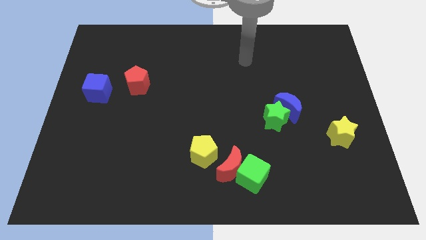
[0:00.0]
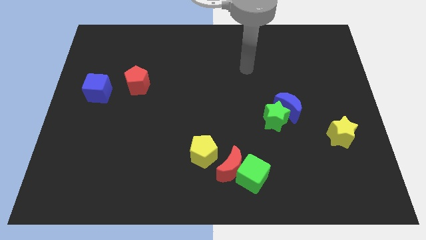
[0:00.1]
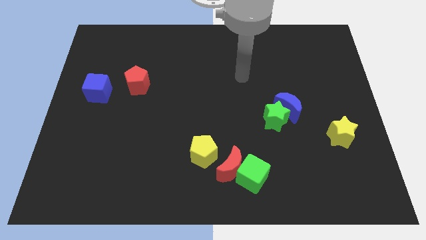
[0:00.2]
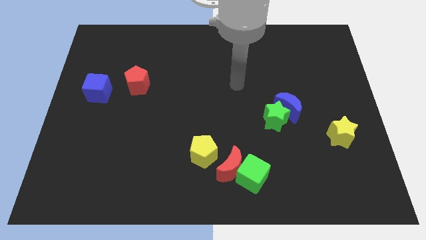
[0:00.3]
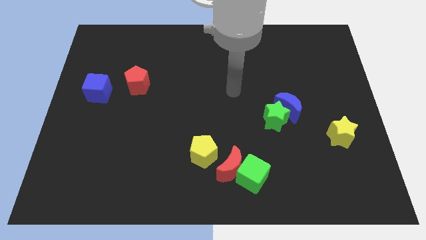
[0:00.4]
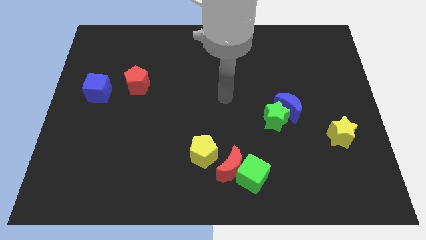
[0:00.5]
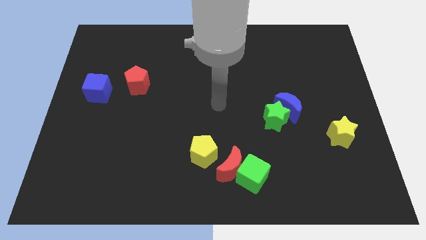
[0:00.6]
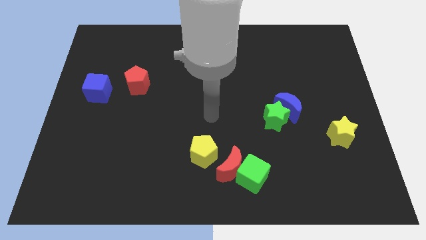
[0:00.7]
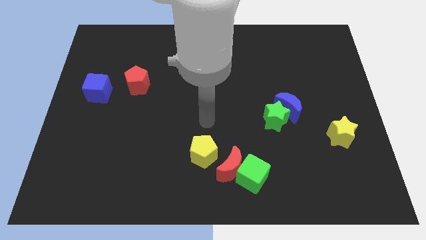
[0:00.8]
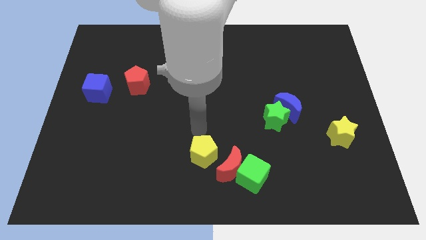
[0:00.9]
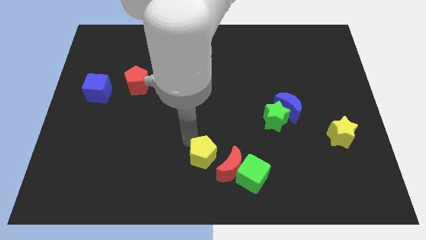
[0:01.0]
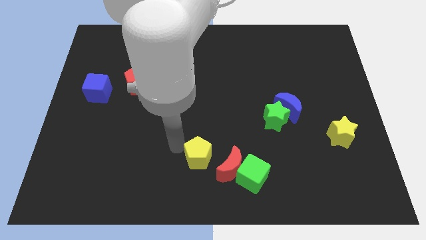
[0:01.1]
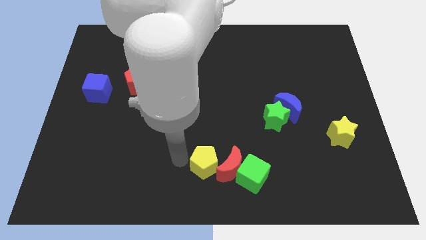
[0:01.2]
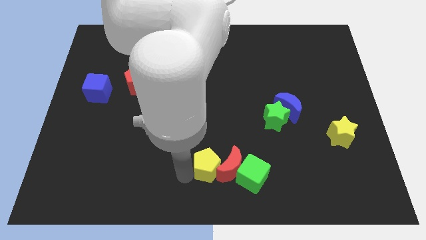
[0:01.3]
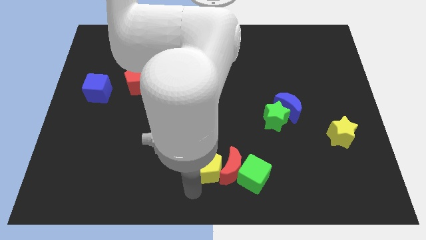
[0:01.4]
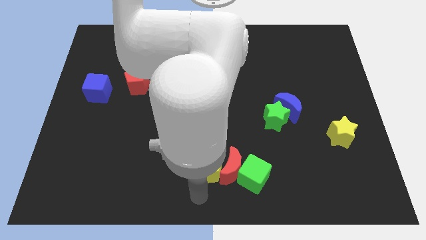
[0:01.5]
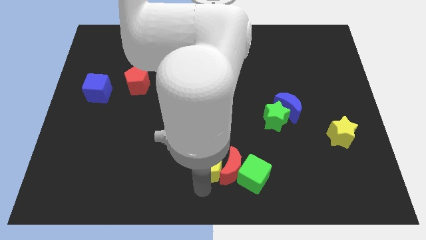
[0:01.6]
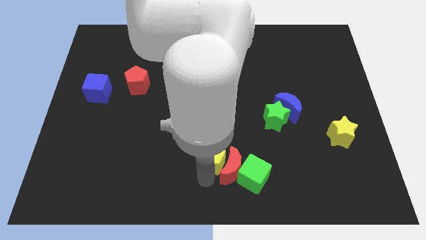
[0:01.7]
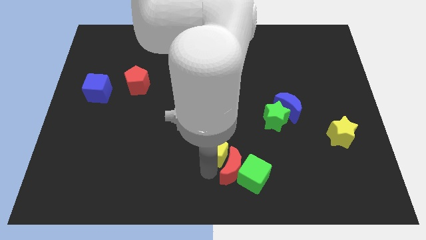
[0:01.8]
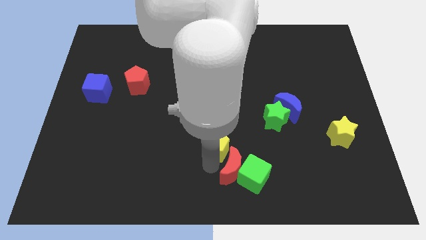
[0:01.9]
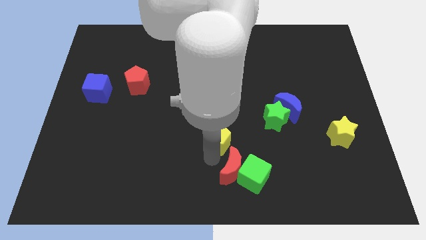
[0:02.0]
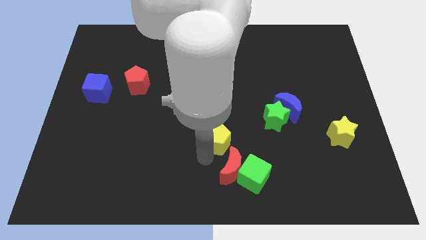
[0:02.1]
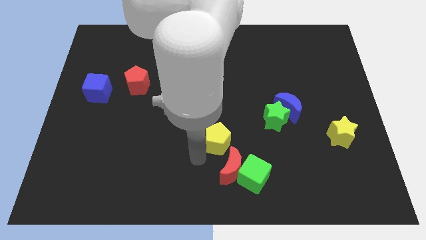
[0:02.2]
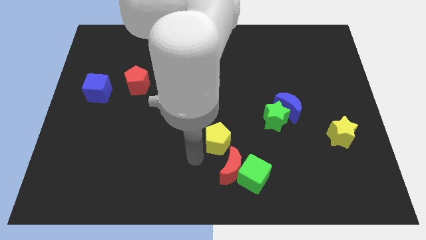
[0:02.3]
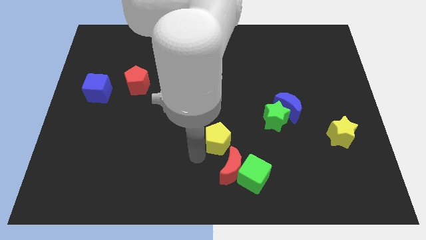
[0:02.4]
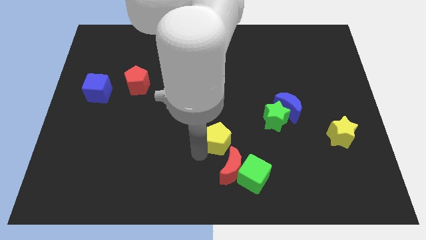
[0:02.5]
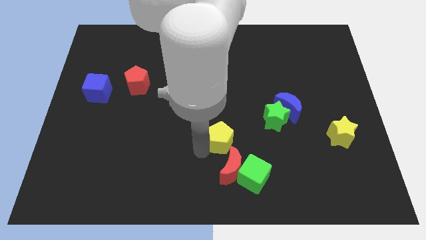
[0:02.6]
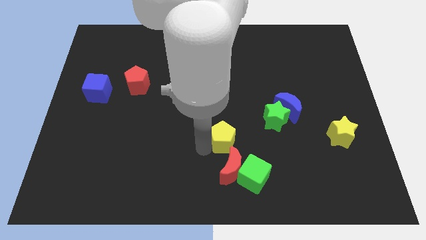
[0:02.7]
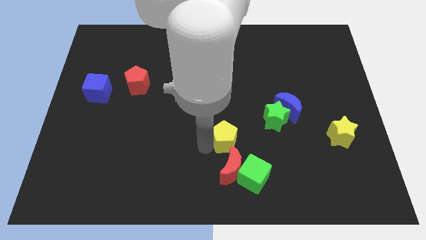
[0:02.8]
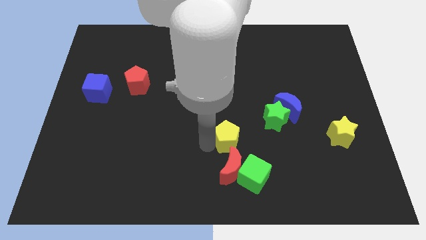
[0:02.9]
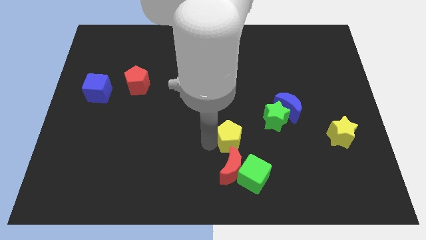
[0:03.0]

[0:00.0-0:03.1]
move the yellow pentagon slightly upwards and right diagonally

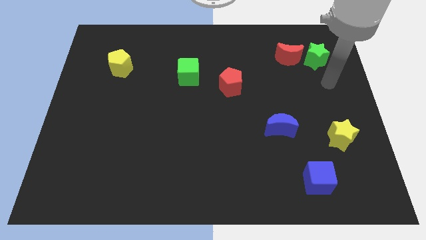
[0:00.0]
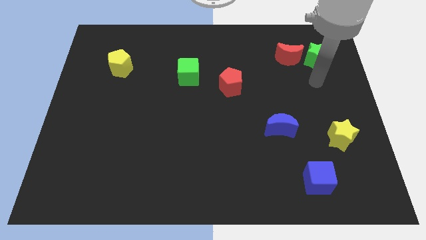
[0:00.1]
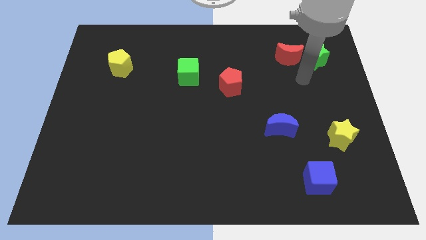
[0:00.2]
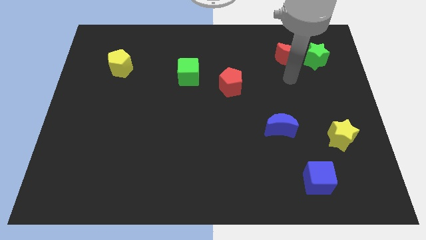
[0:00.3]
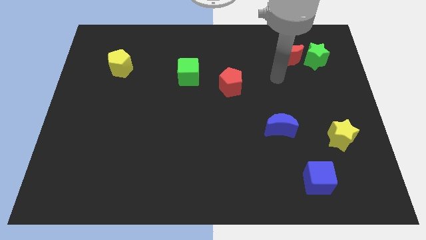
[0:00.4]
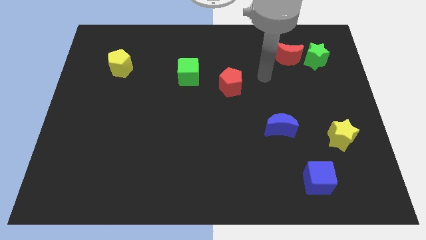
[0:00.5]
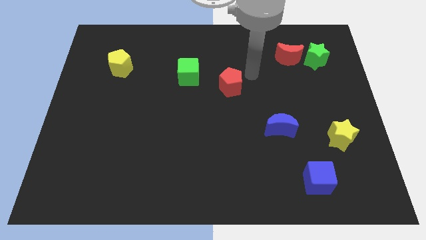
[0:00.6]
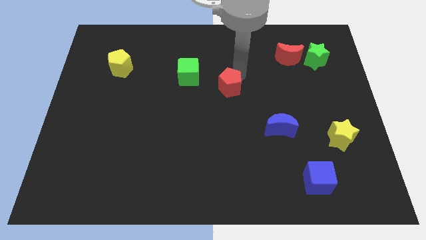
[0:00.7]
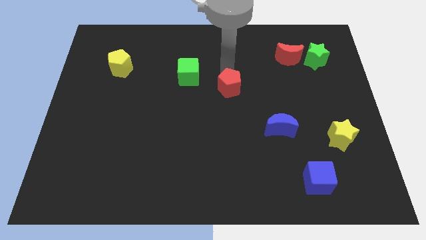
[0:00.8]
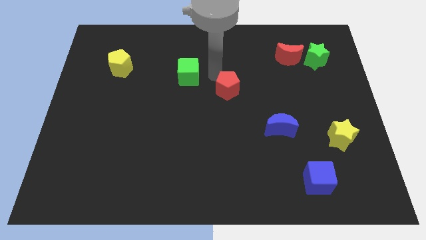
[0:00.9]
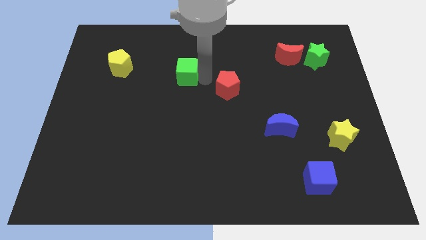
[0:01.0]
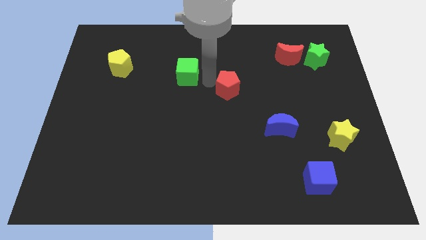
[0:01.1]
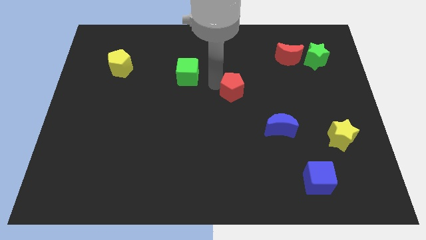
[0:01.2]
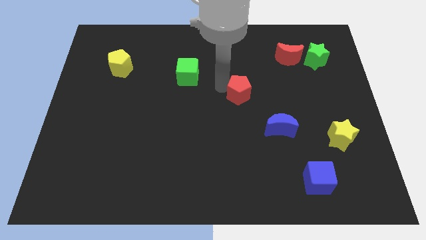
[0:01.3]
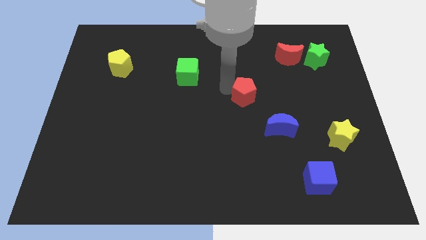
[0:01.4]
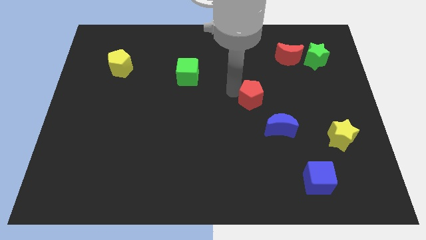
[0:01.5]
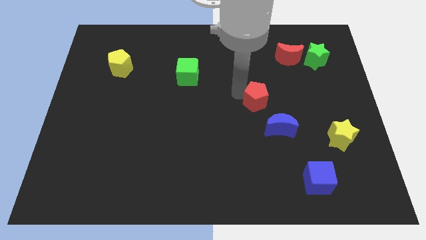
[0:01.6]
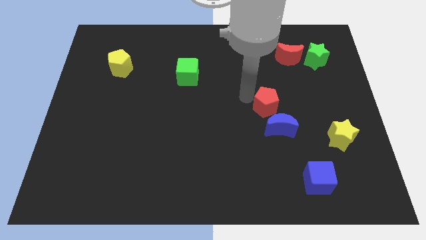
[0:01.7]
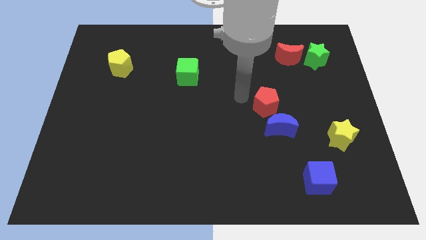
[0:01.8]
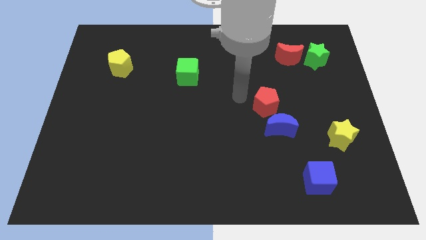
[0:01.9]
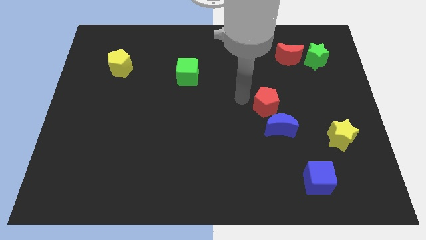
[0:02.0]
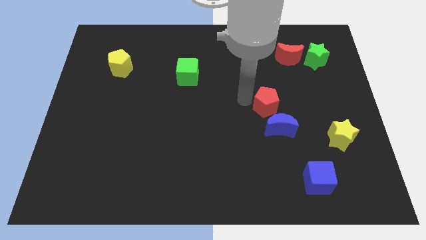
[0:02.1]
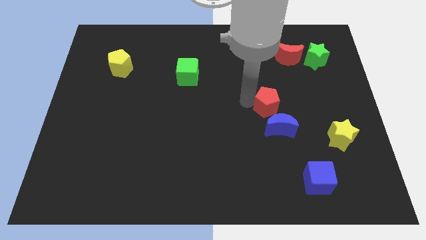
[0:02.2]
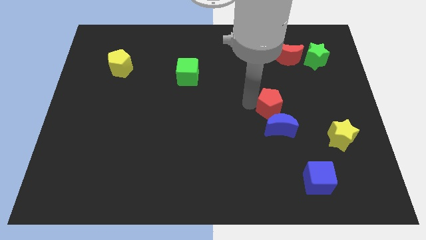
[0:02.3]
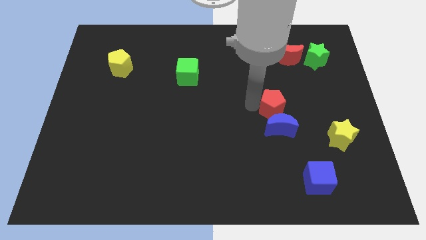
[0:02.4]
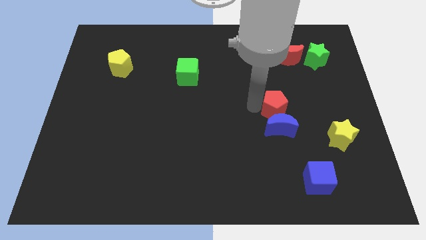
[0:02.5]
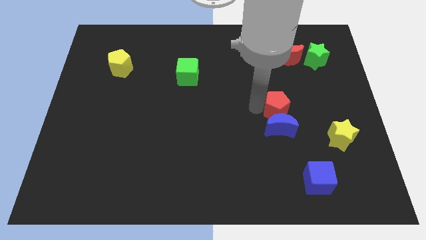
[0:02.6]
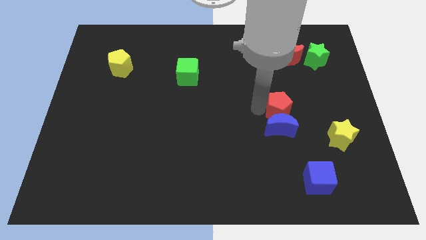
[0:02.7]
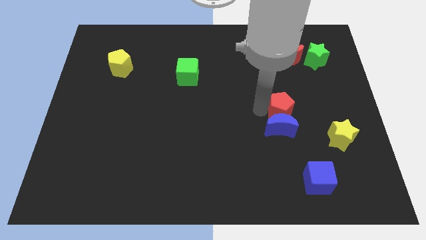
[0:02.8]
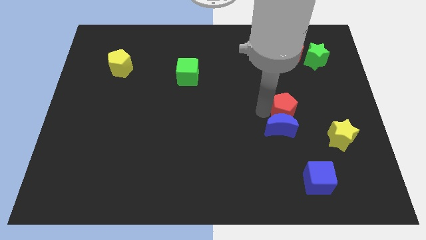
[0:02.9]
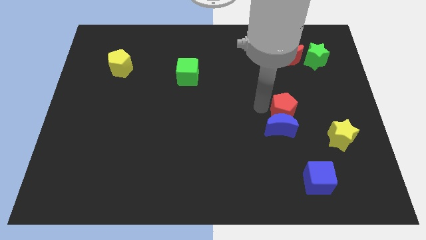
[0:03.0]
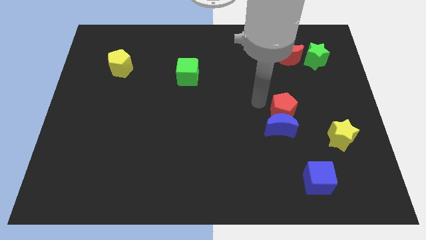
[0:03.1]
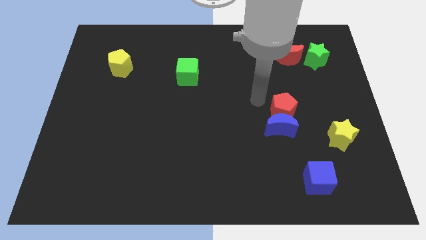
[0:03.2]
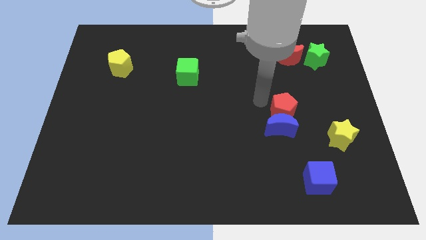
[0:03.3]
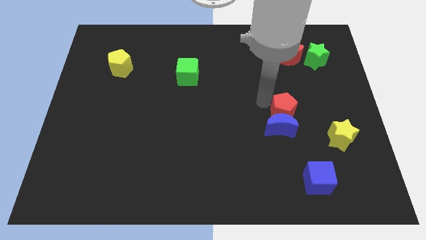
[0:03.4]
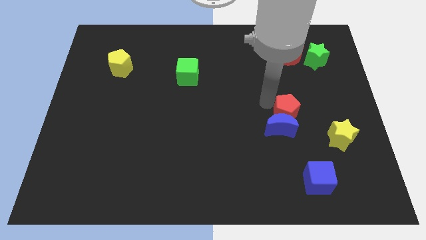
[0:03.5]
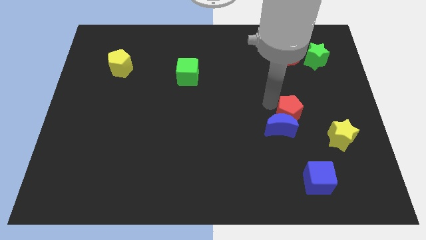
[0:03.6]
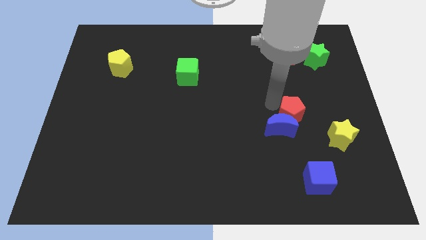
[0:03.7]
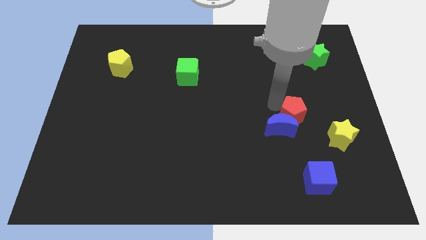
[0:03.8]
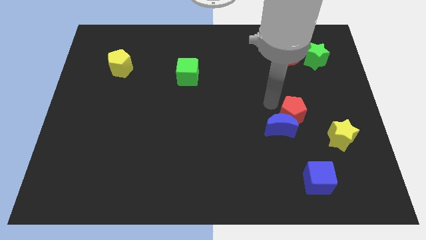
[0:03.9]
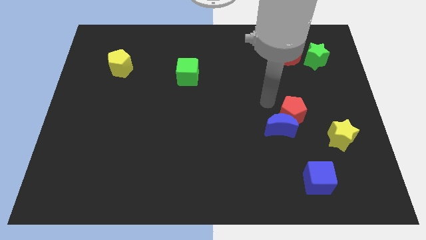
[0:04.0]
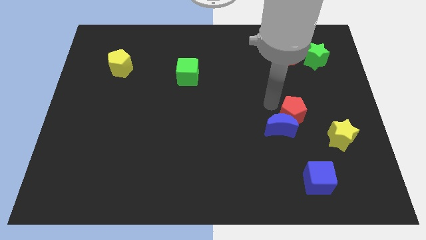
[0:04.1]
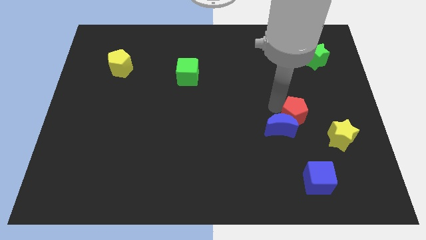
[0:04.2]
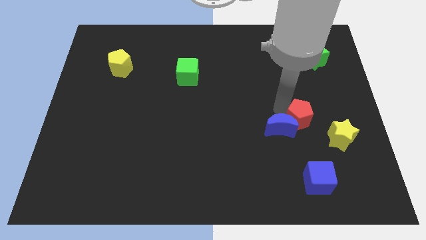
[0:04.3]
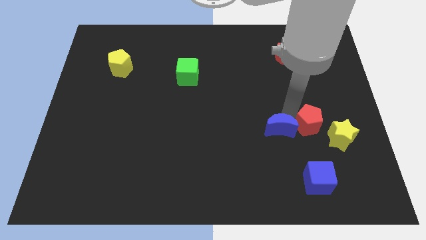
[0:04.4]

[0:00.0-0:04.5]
slide the red pentagon diagonally down and right

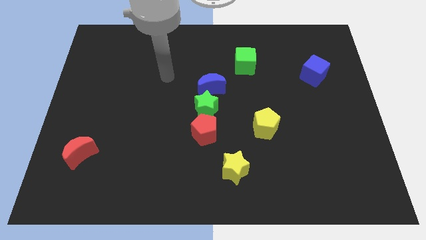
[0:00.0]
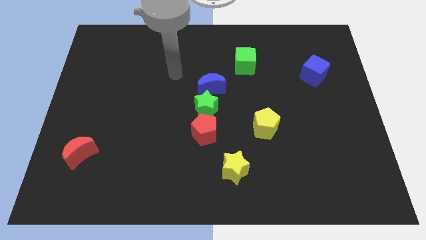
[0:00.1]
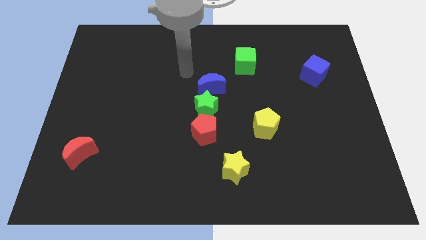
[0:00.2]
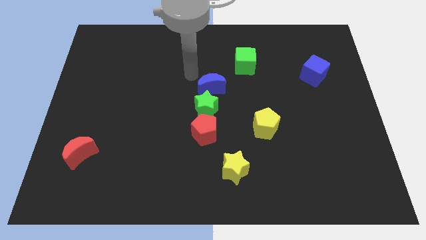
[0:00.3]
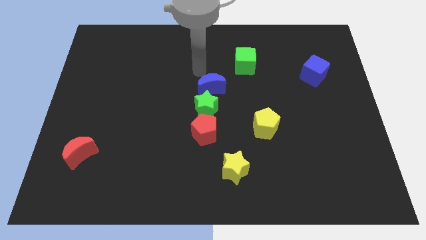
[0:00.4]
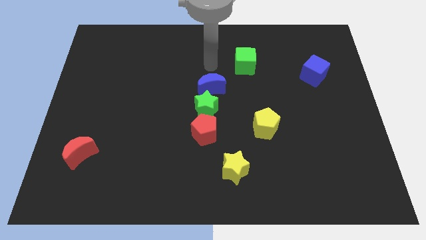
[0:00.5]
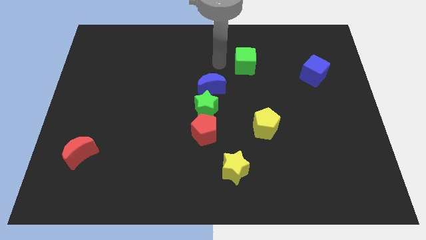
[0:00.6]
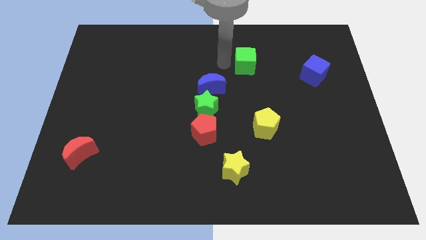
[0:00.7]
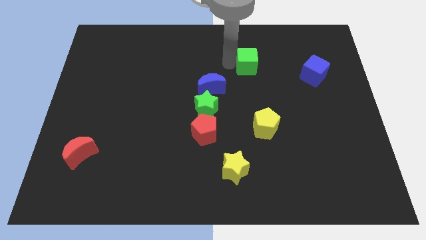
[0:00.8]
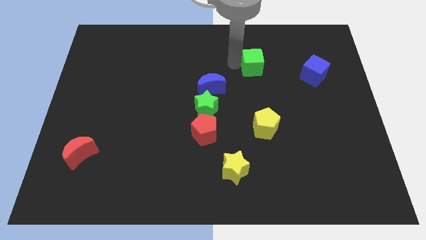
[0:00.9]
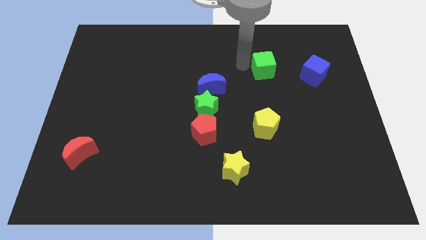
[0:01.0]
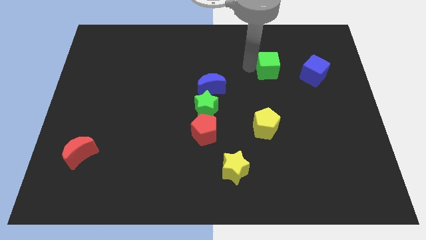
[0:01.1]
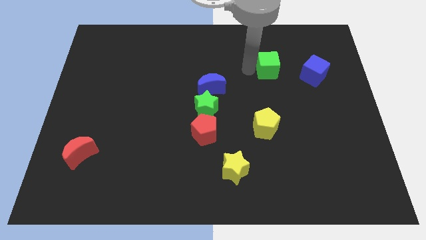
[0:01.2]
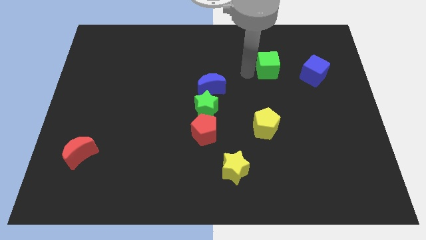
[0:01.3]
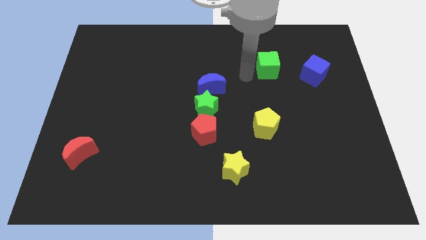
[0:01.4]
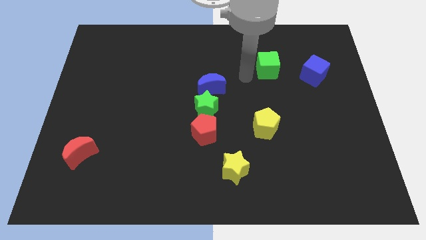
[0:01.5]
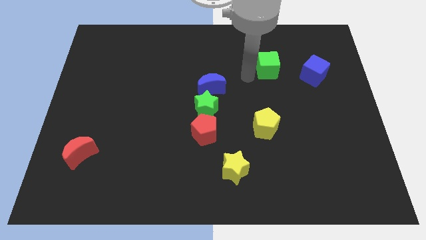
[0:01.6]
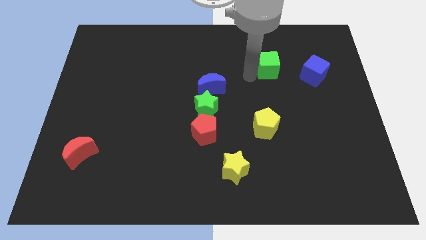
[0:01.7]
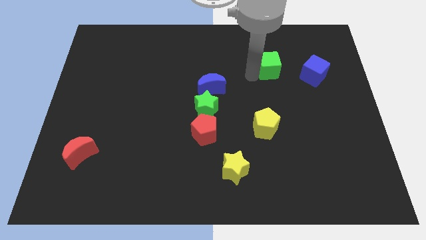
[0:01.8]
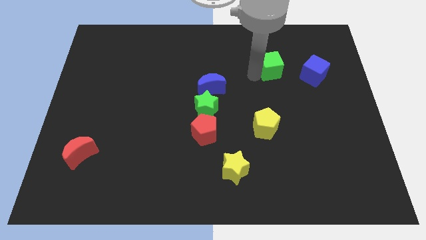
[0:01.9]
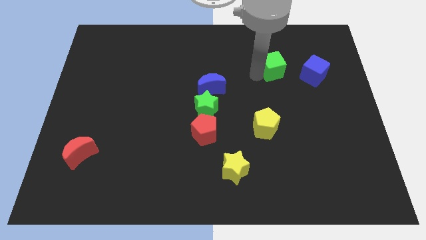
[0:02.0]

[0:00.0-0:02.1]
move the green cube to the right somewhat
